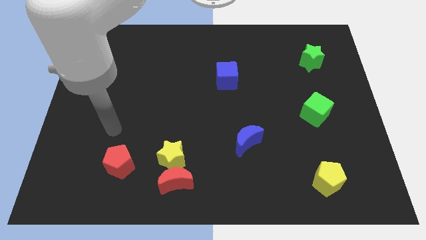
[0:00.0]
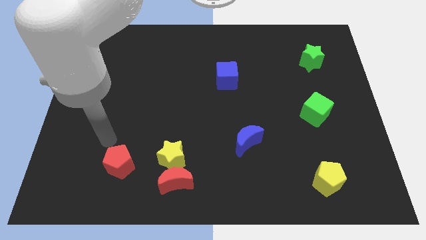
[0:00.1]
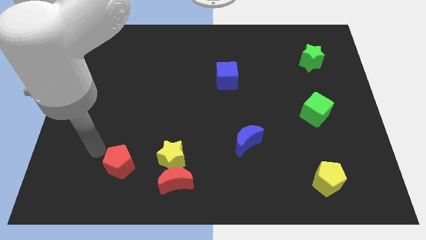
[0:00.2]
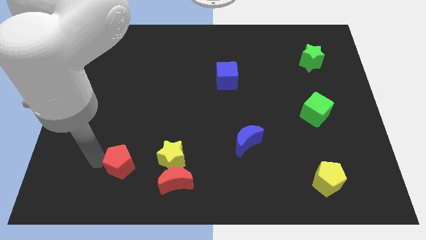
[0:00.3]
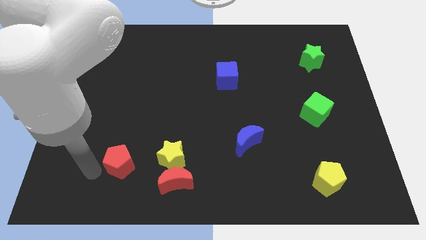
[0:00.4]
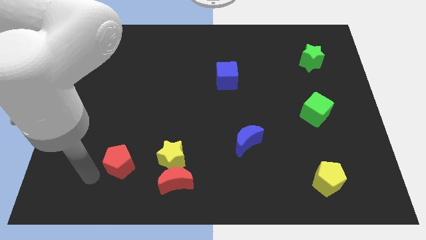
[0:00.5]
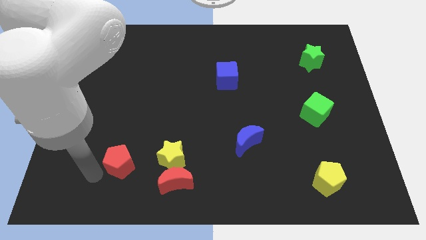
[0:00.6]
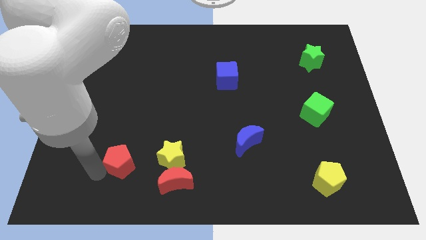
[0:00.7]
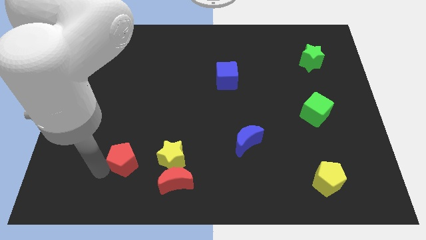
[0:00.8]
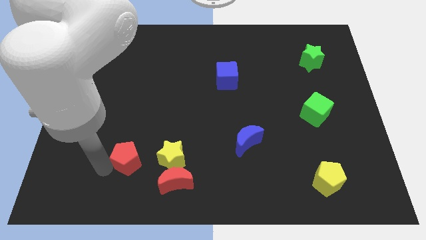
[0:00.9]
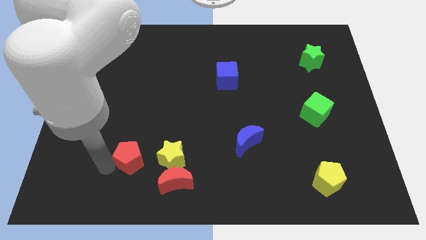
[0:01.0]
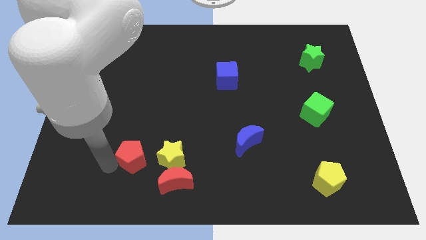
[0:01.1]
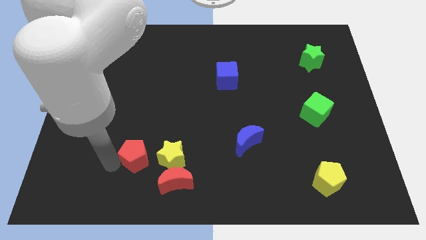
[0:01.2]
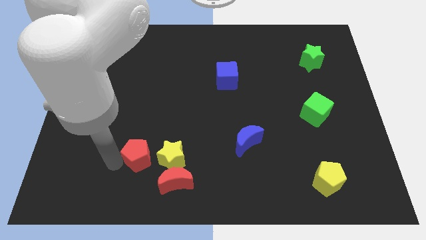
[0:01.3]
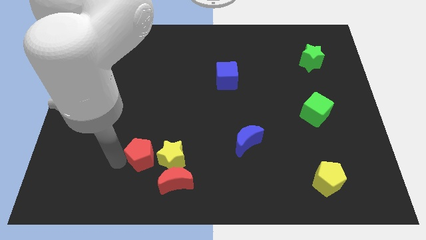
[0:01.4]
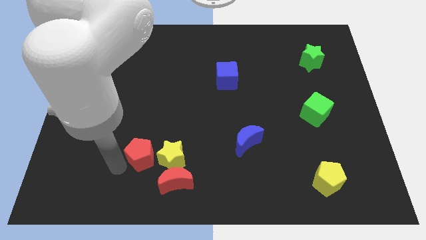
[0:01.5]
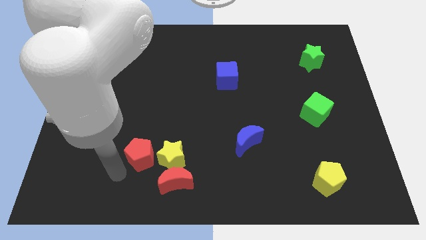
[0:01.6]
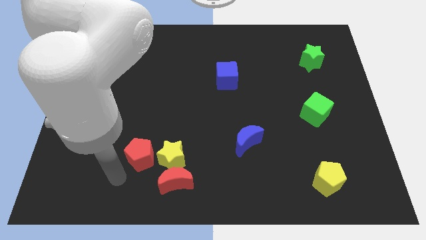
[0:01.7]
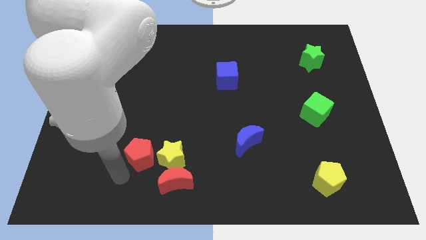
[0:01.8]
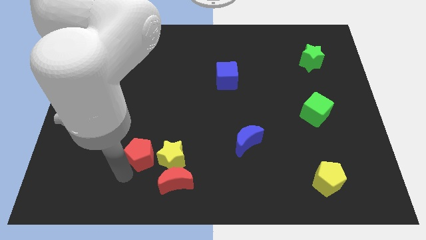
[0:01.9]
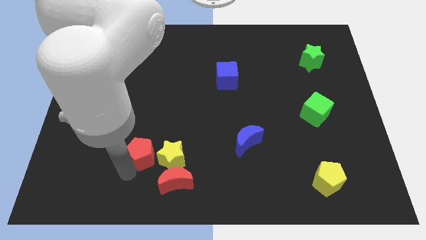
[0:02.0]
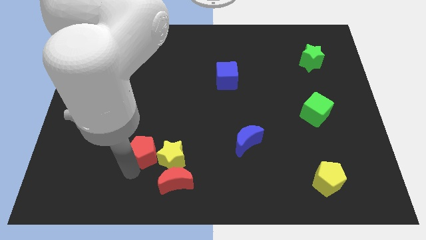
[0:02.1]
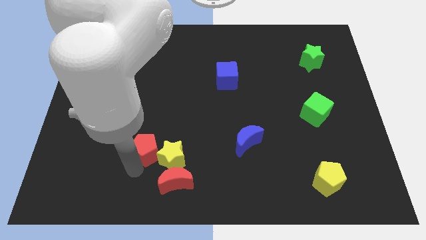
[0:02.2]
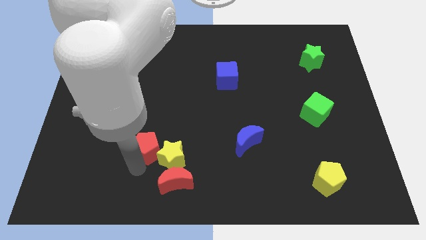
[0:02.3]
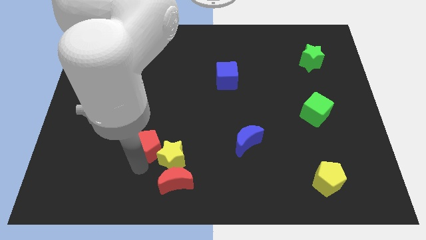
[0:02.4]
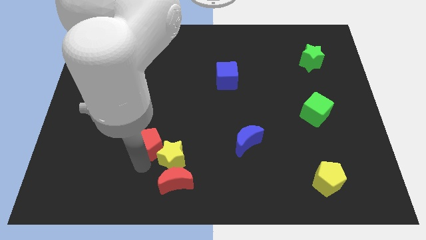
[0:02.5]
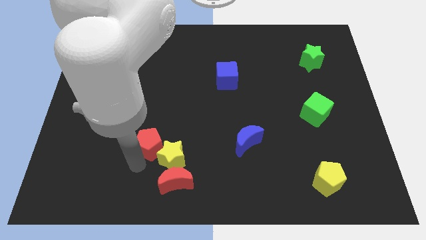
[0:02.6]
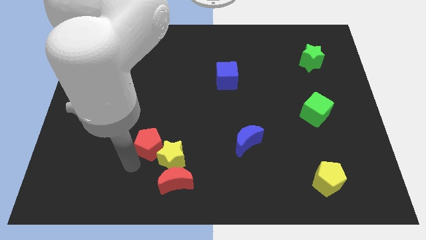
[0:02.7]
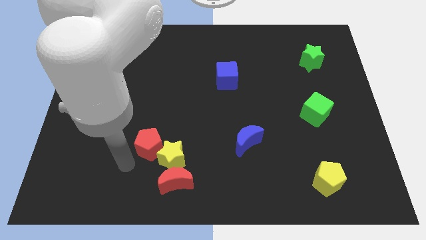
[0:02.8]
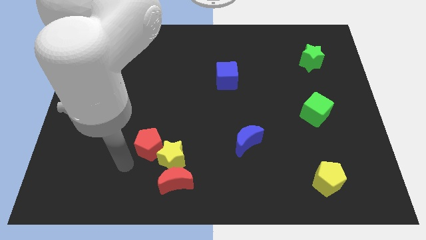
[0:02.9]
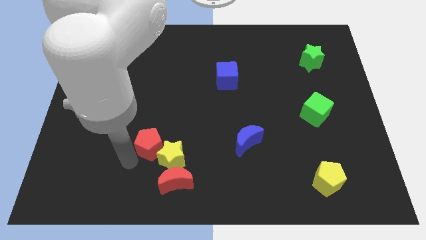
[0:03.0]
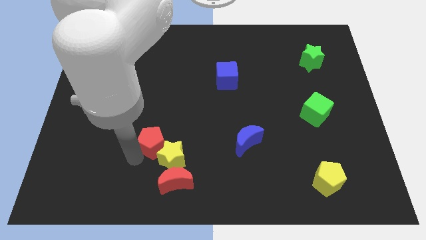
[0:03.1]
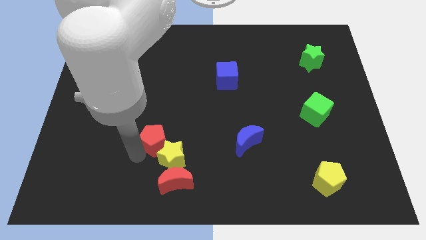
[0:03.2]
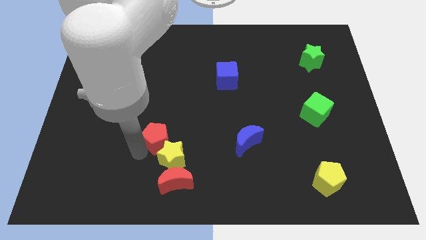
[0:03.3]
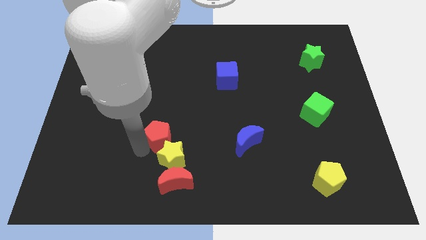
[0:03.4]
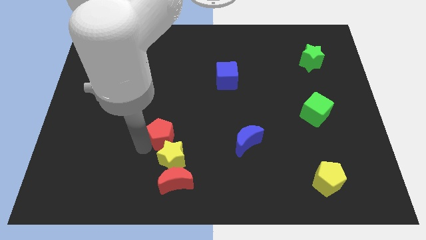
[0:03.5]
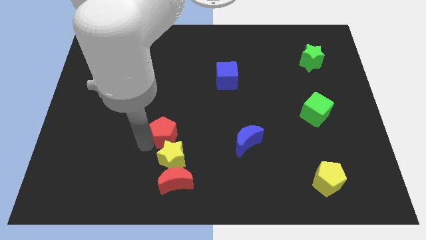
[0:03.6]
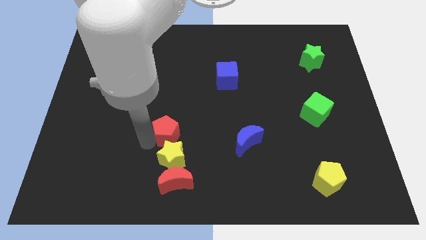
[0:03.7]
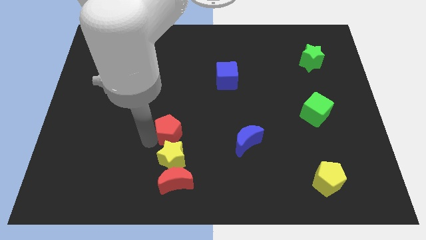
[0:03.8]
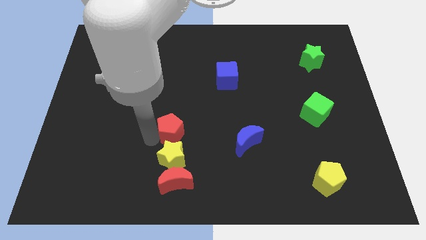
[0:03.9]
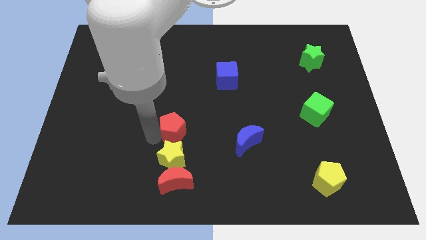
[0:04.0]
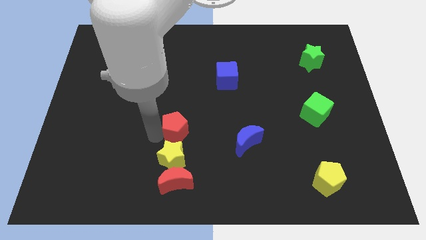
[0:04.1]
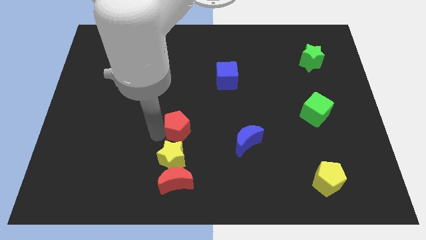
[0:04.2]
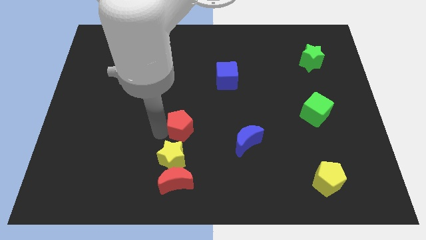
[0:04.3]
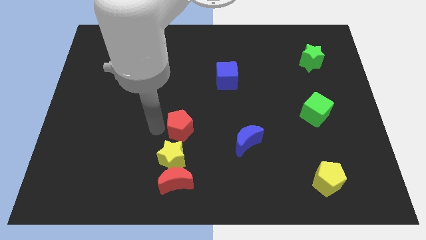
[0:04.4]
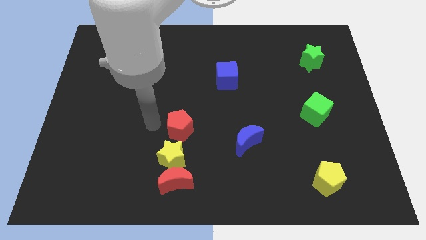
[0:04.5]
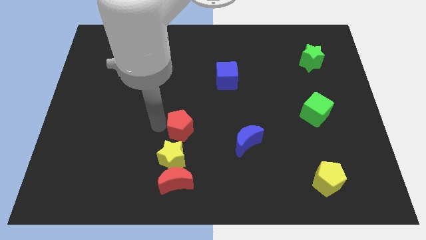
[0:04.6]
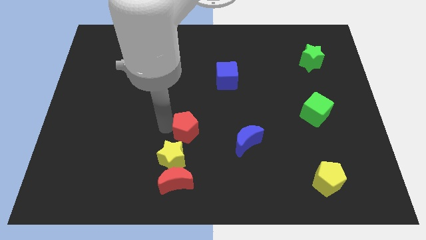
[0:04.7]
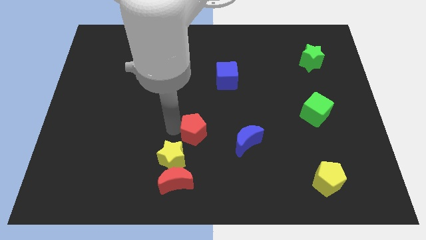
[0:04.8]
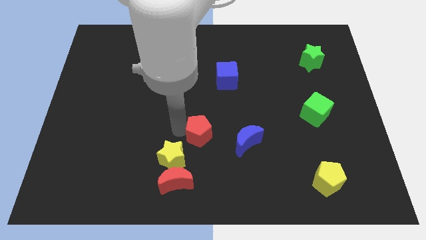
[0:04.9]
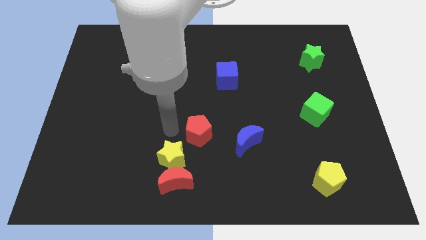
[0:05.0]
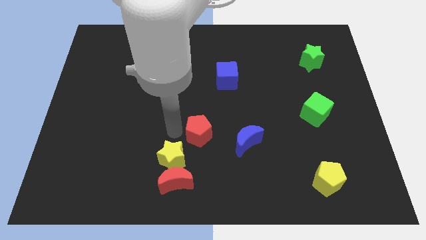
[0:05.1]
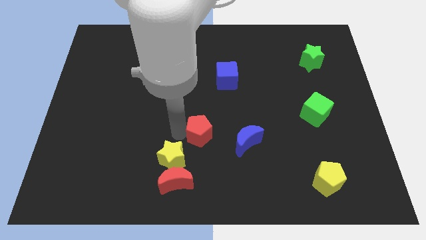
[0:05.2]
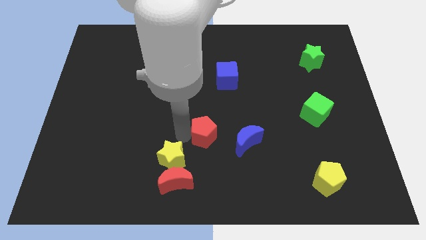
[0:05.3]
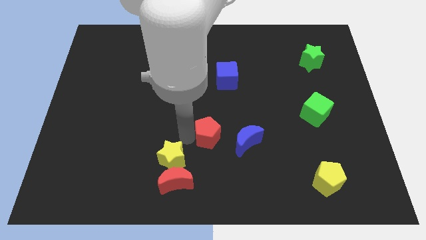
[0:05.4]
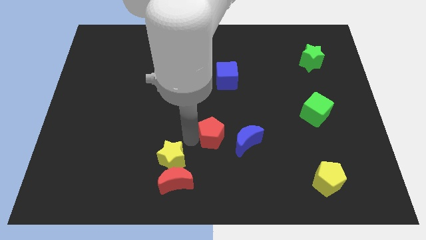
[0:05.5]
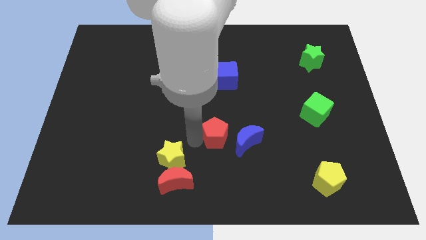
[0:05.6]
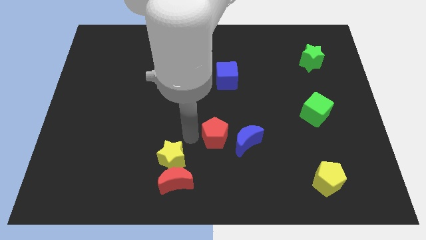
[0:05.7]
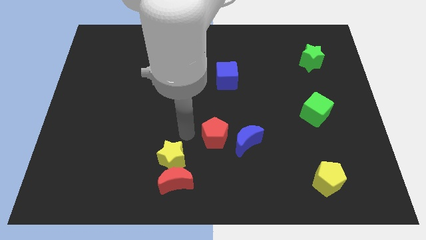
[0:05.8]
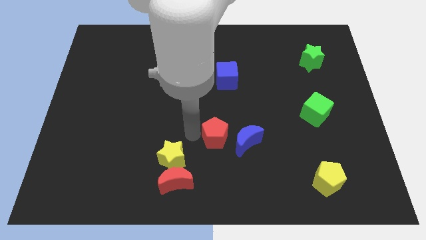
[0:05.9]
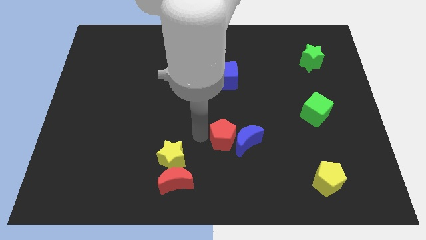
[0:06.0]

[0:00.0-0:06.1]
put the red pentagon towards the blue moon
